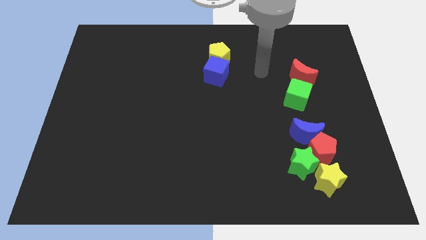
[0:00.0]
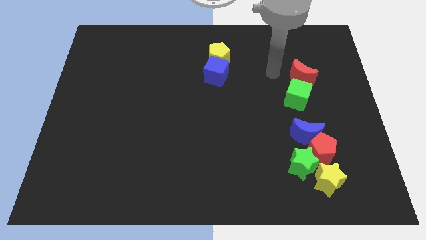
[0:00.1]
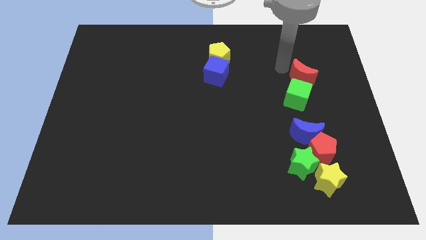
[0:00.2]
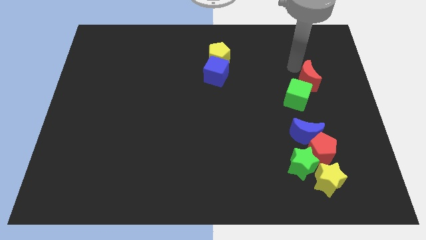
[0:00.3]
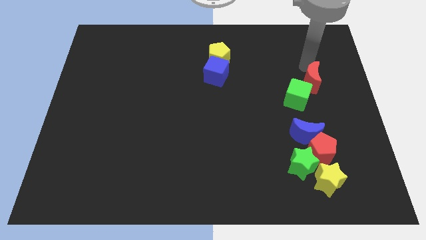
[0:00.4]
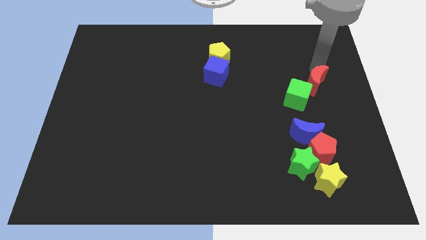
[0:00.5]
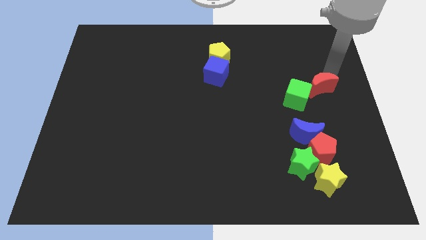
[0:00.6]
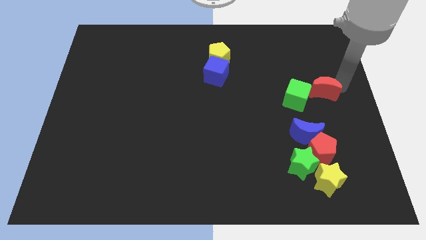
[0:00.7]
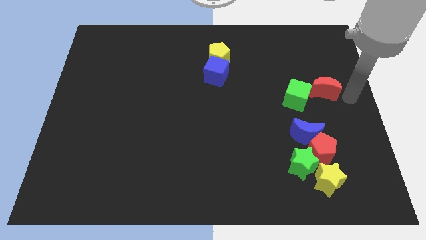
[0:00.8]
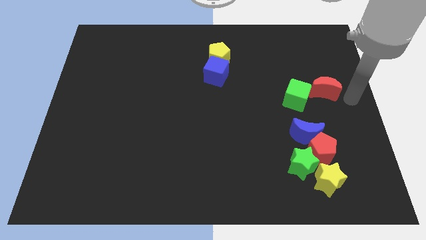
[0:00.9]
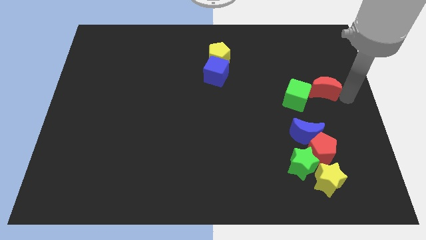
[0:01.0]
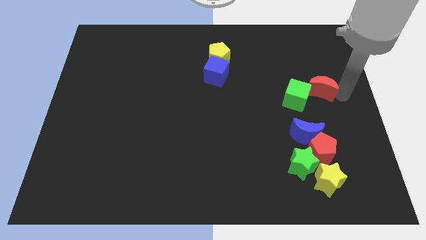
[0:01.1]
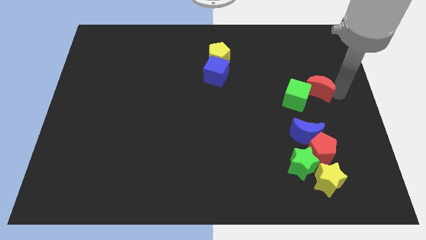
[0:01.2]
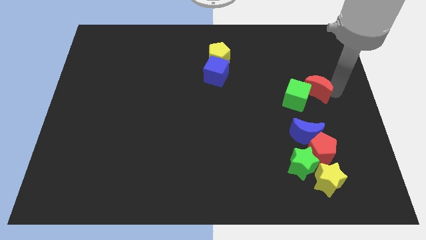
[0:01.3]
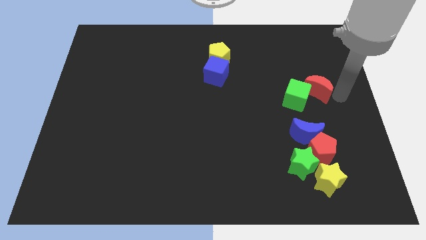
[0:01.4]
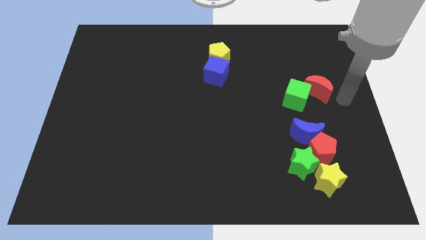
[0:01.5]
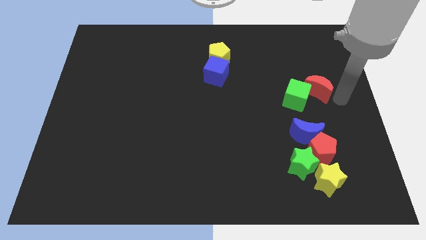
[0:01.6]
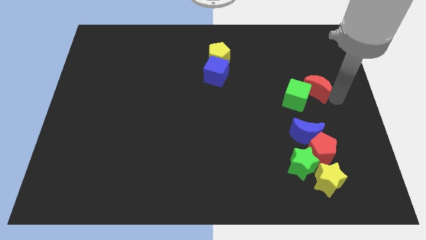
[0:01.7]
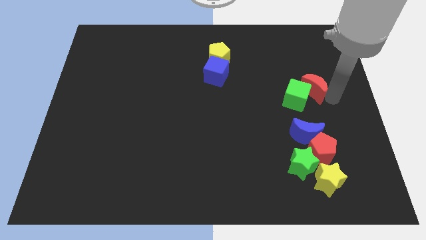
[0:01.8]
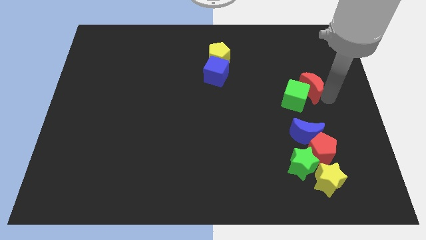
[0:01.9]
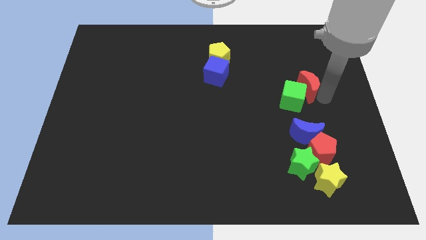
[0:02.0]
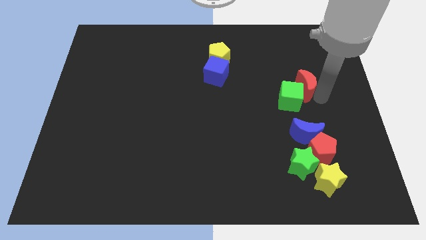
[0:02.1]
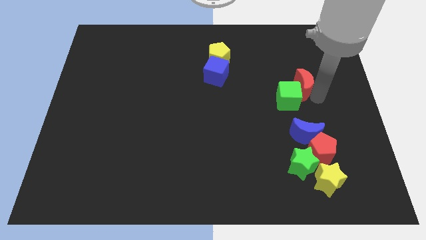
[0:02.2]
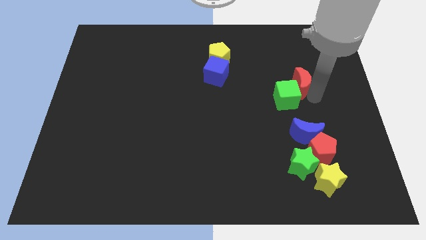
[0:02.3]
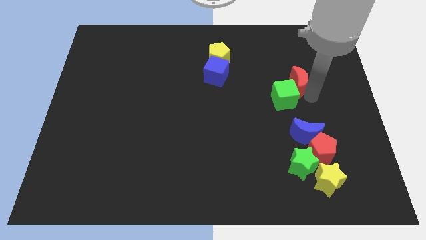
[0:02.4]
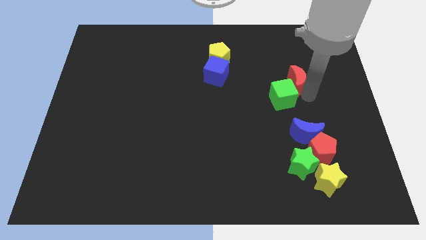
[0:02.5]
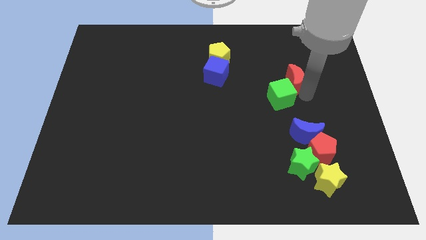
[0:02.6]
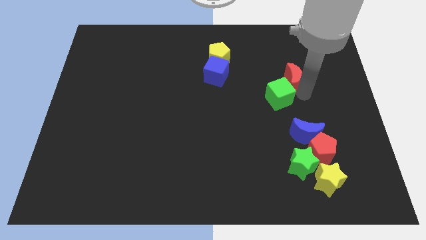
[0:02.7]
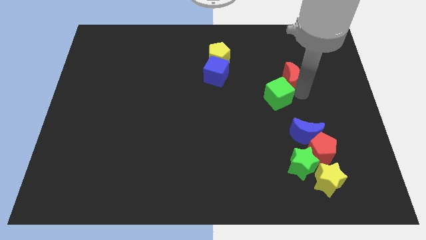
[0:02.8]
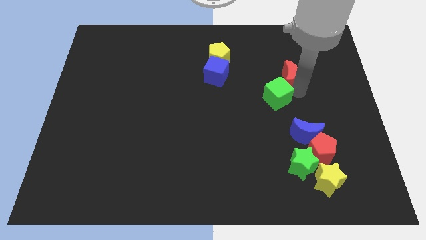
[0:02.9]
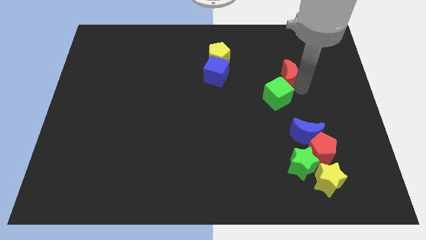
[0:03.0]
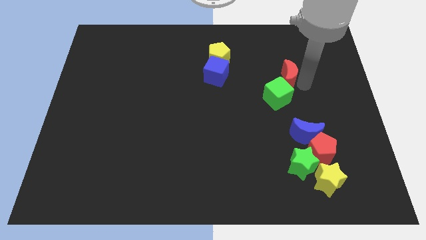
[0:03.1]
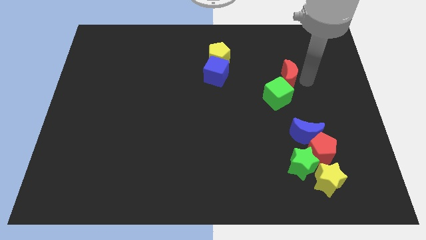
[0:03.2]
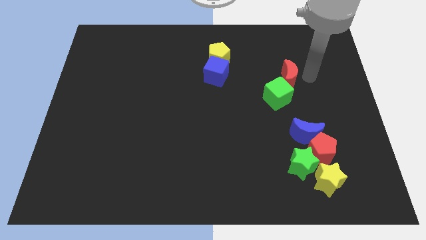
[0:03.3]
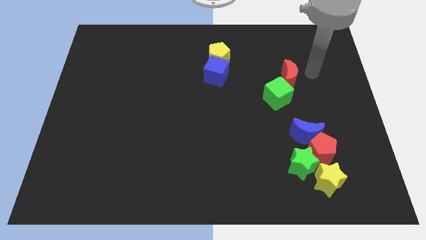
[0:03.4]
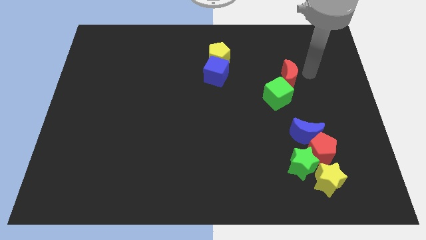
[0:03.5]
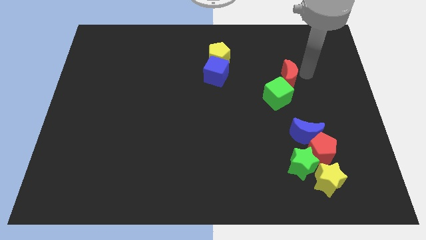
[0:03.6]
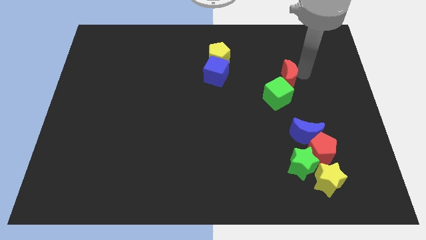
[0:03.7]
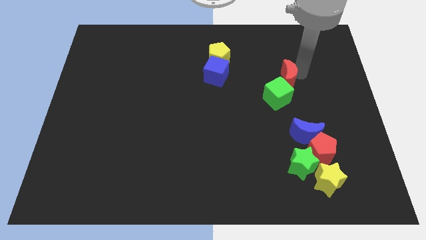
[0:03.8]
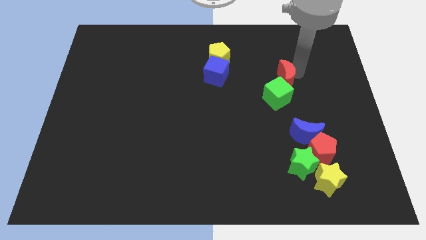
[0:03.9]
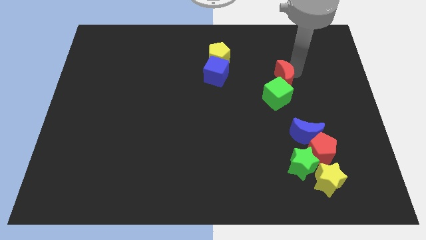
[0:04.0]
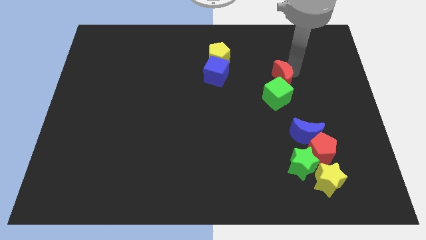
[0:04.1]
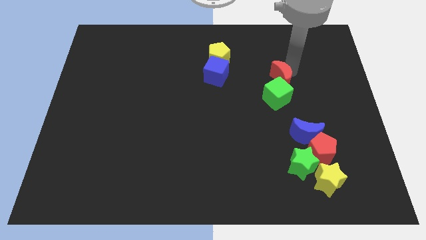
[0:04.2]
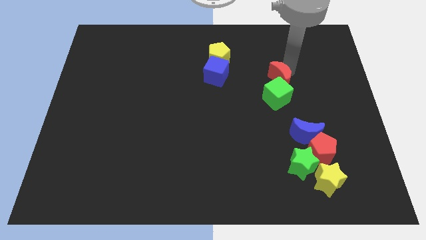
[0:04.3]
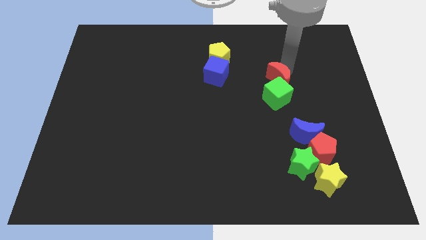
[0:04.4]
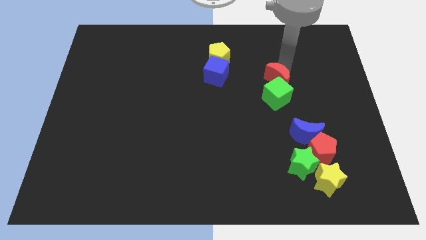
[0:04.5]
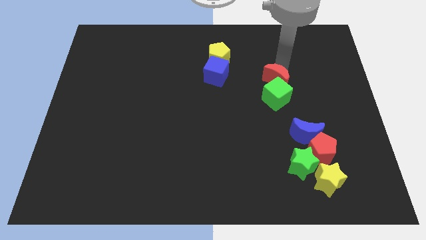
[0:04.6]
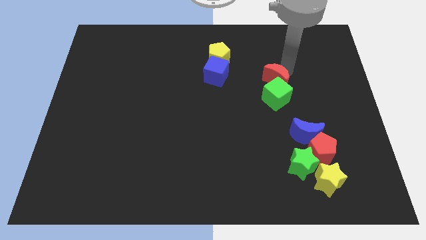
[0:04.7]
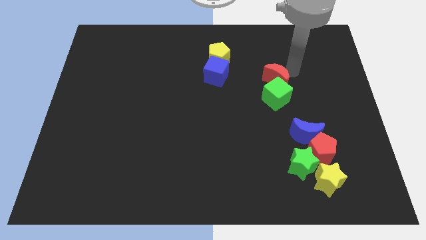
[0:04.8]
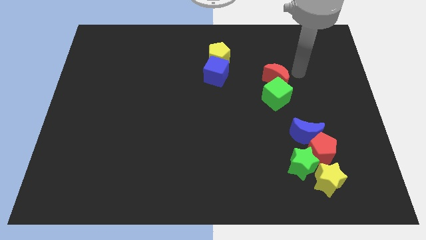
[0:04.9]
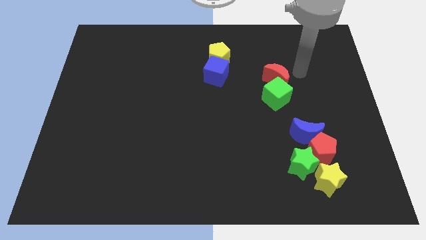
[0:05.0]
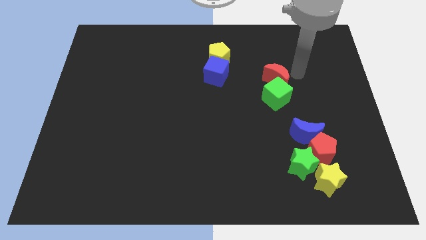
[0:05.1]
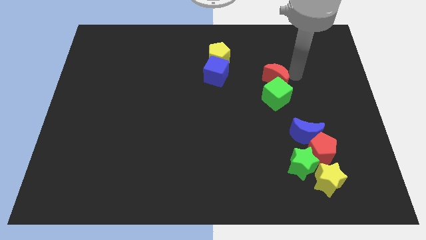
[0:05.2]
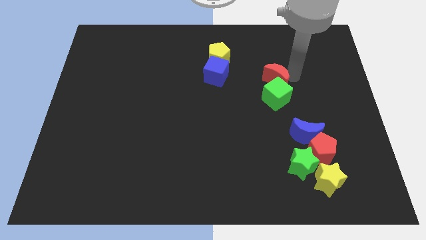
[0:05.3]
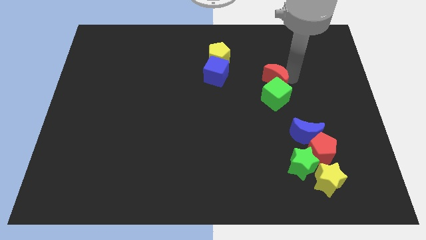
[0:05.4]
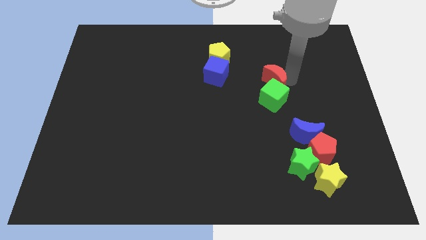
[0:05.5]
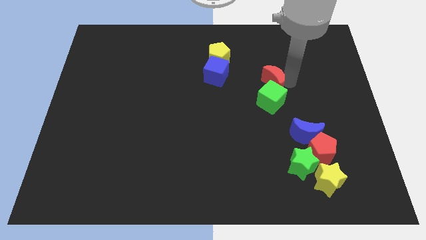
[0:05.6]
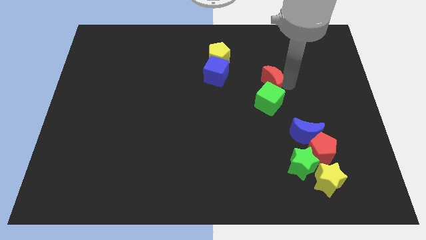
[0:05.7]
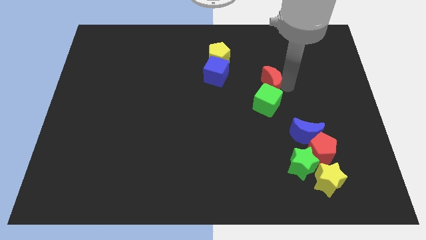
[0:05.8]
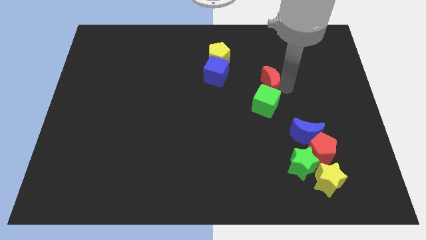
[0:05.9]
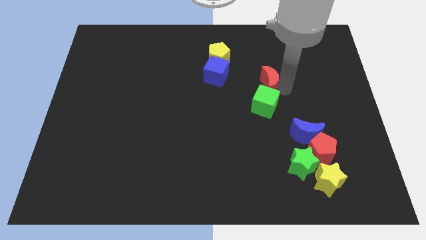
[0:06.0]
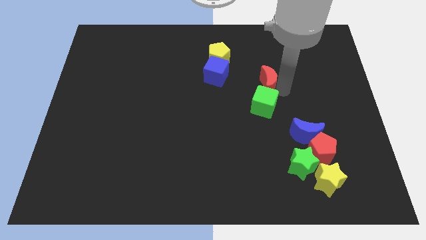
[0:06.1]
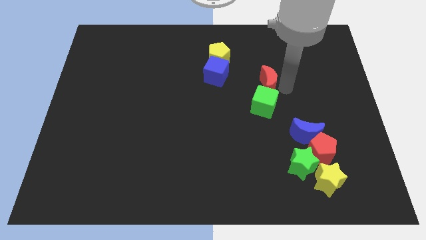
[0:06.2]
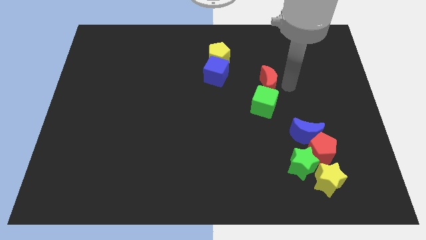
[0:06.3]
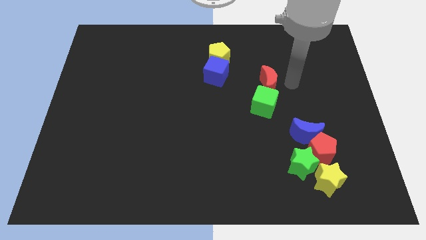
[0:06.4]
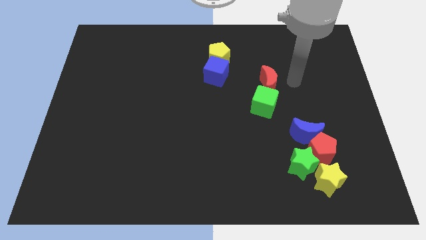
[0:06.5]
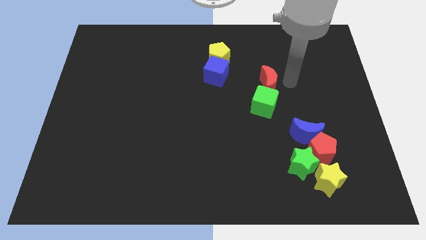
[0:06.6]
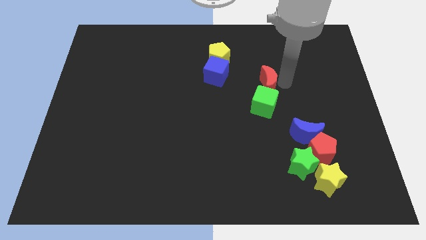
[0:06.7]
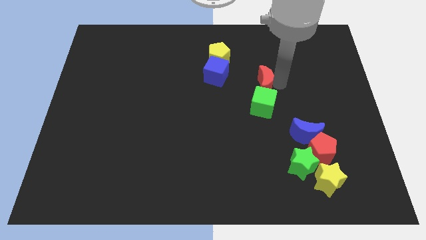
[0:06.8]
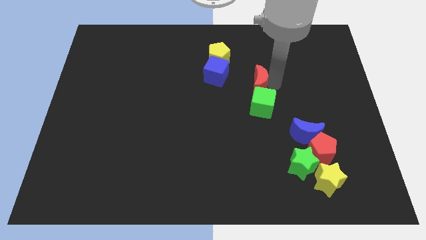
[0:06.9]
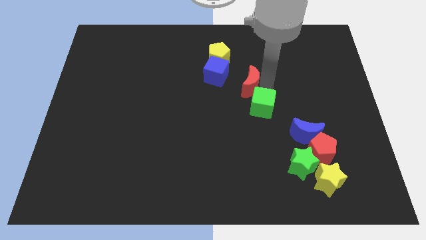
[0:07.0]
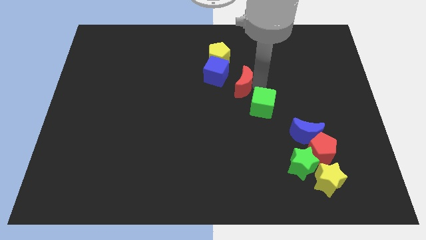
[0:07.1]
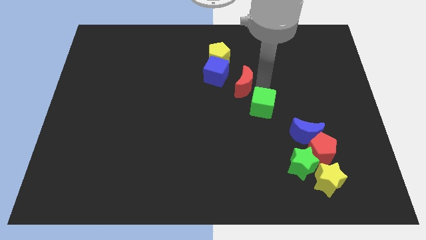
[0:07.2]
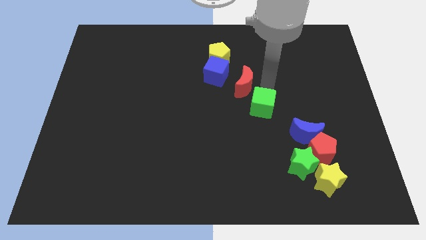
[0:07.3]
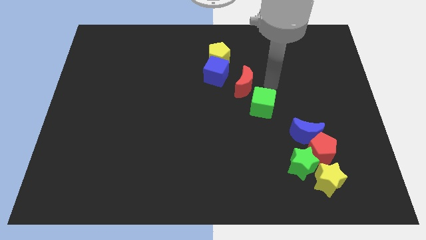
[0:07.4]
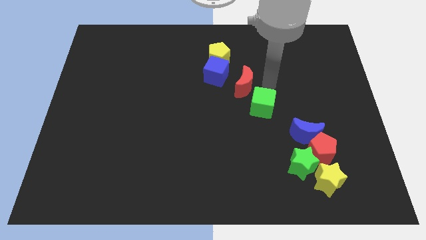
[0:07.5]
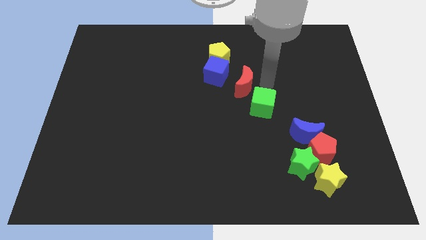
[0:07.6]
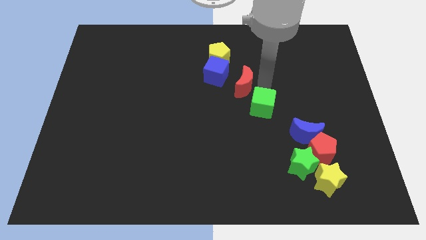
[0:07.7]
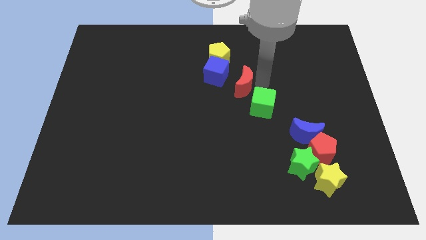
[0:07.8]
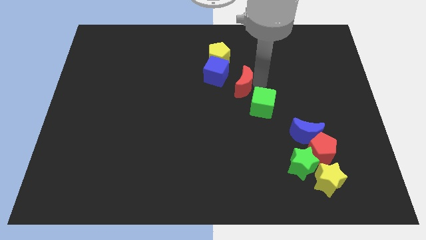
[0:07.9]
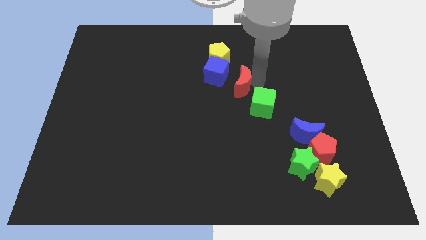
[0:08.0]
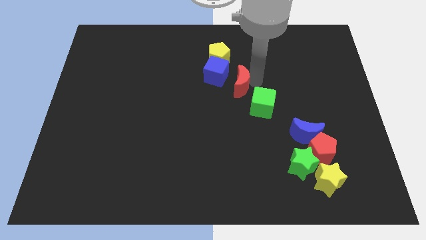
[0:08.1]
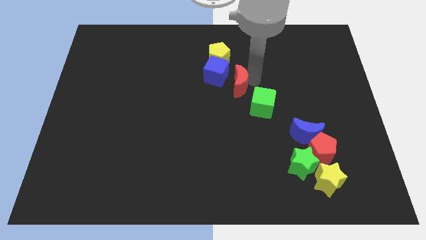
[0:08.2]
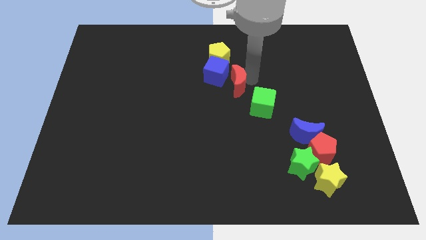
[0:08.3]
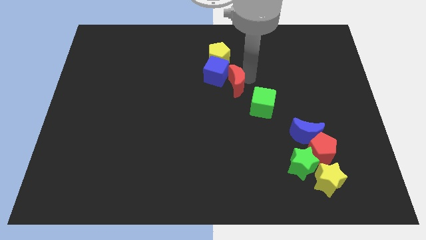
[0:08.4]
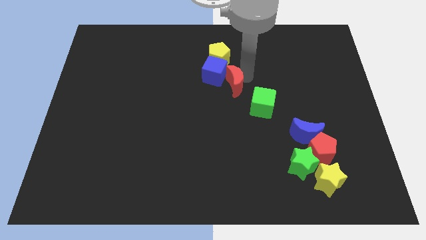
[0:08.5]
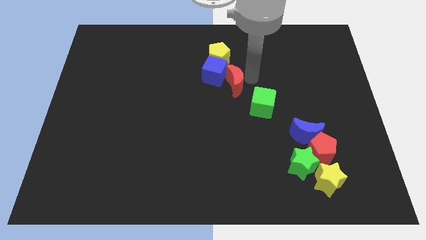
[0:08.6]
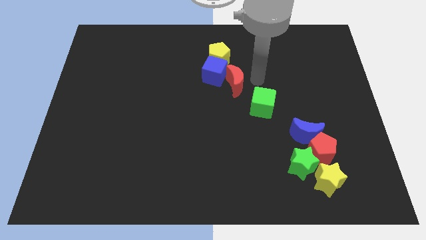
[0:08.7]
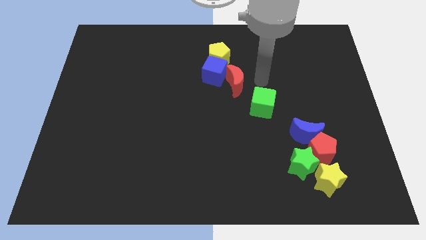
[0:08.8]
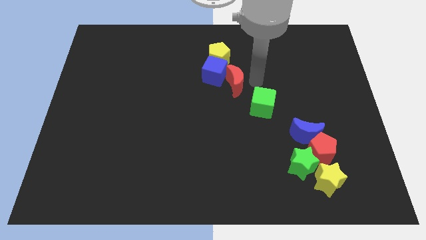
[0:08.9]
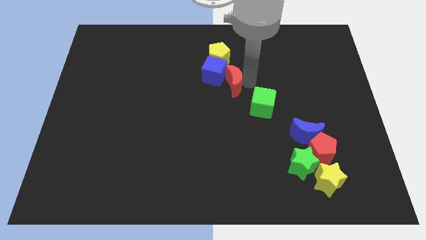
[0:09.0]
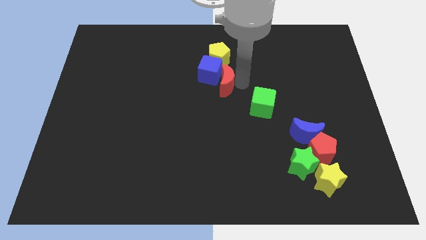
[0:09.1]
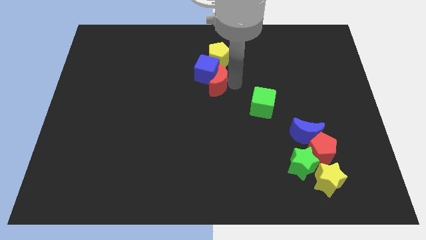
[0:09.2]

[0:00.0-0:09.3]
push the red moon left
